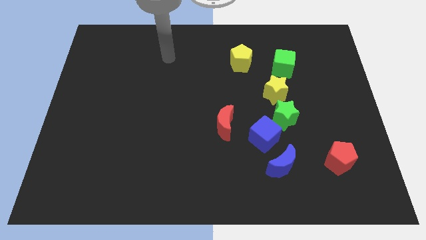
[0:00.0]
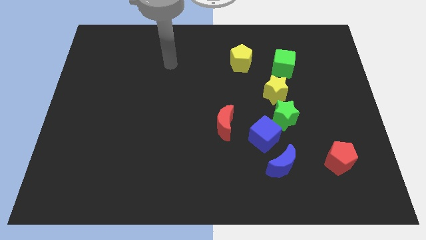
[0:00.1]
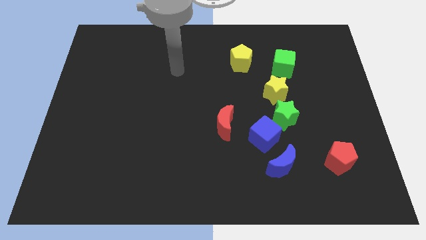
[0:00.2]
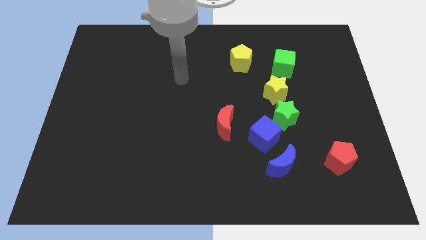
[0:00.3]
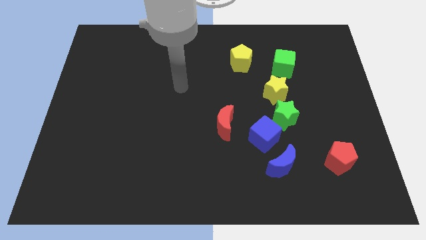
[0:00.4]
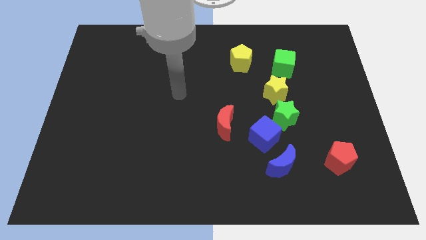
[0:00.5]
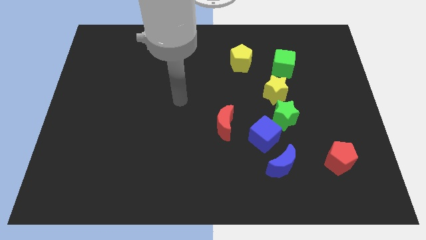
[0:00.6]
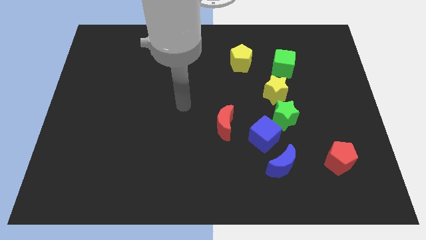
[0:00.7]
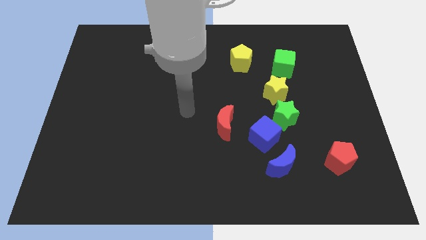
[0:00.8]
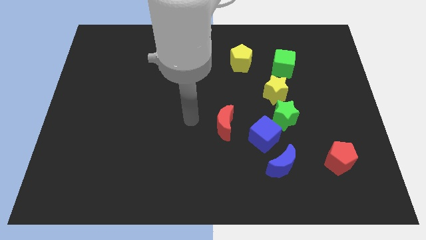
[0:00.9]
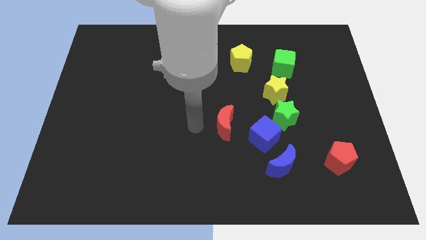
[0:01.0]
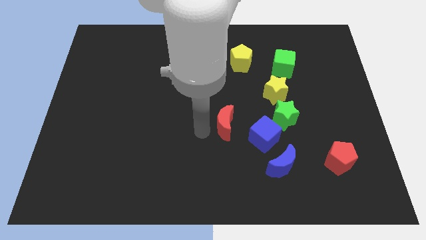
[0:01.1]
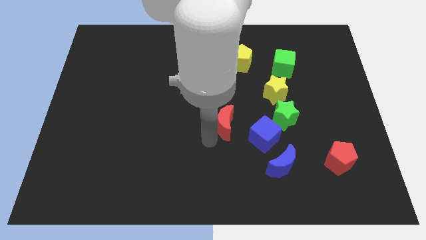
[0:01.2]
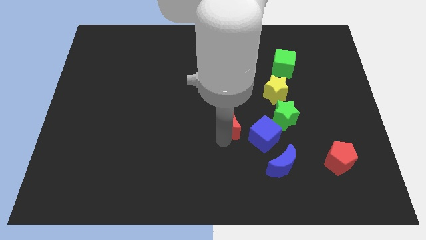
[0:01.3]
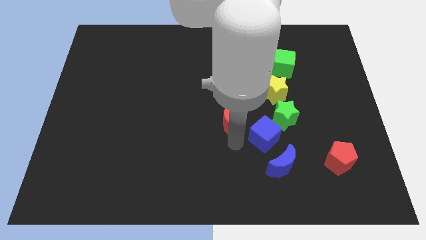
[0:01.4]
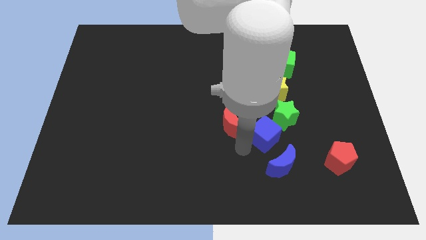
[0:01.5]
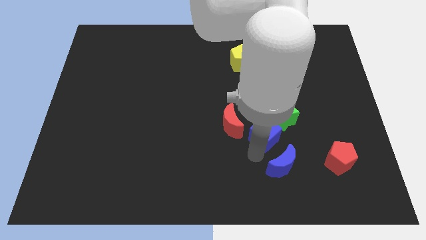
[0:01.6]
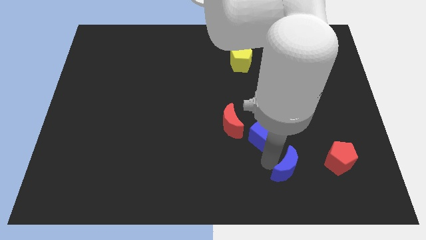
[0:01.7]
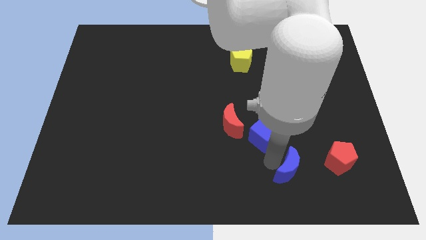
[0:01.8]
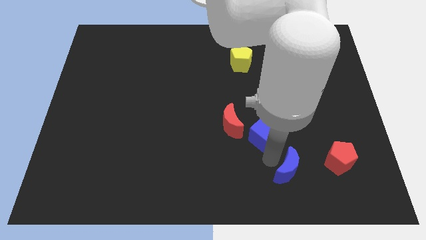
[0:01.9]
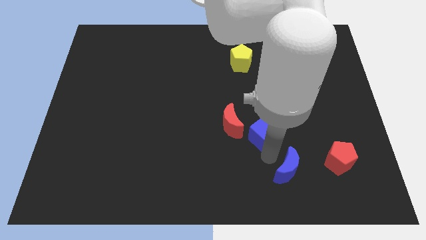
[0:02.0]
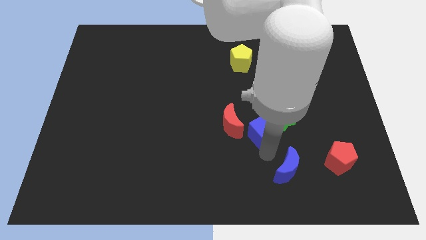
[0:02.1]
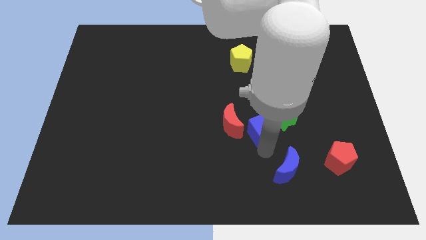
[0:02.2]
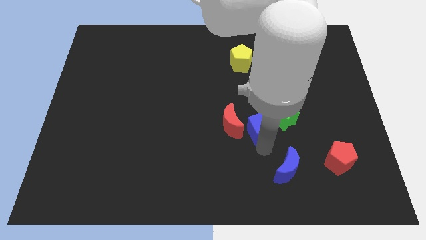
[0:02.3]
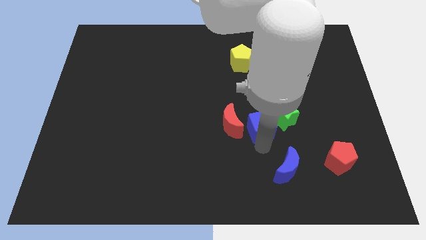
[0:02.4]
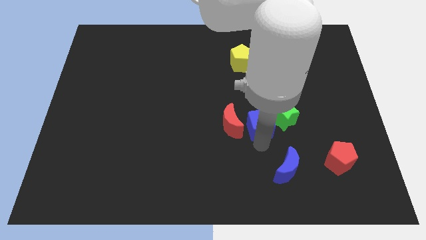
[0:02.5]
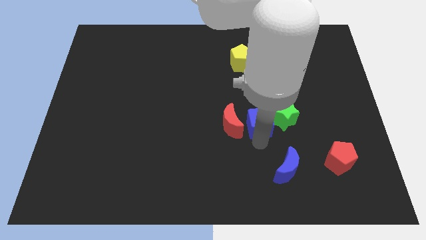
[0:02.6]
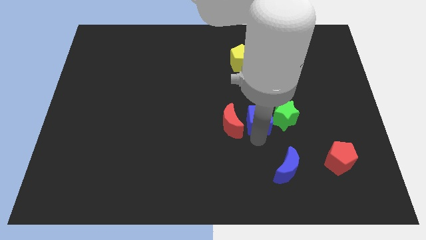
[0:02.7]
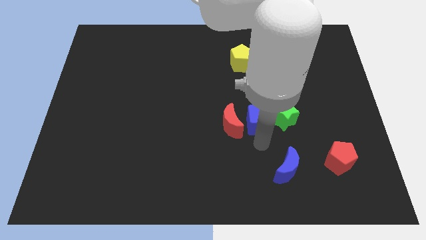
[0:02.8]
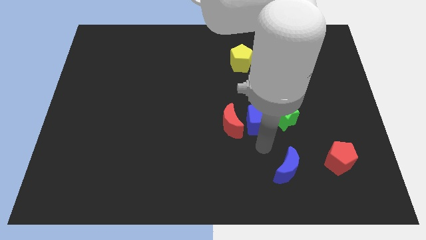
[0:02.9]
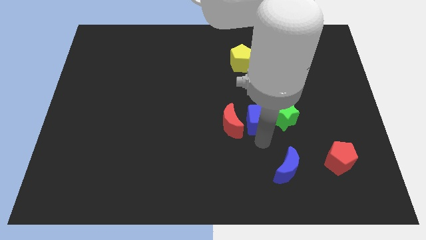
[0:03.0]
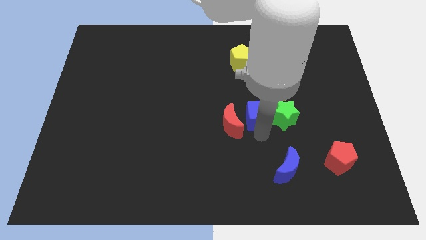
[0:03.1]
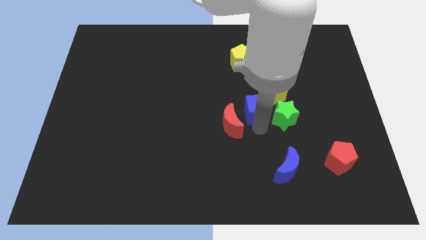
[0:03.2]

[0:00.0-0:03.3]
push the blue cube up somewhat

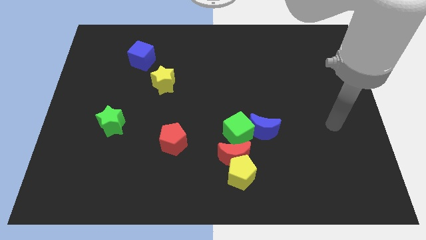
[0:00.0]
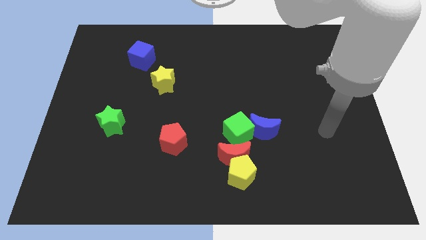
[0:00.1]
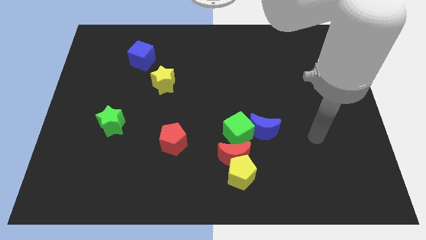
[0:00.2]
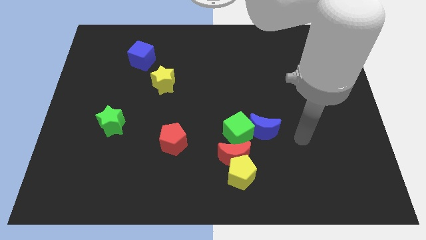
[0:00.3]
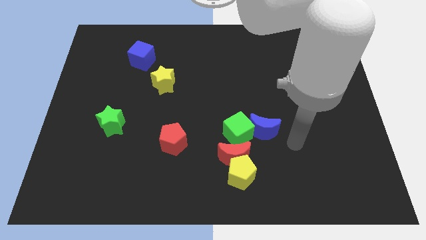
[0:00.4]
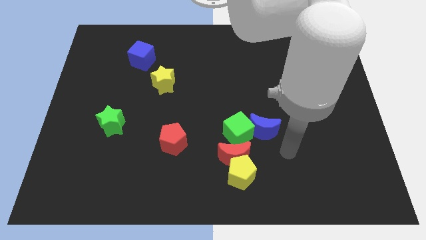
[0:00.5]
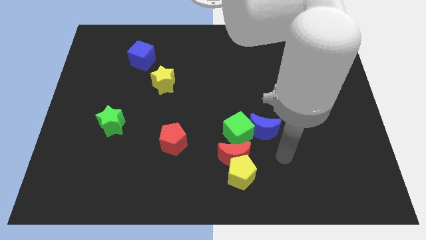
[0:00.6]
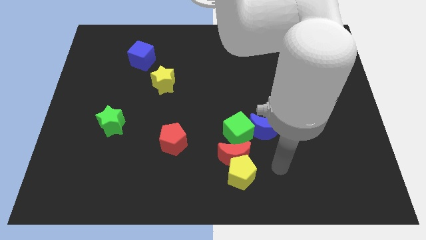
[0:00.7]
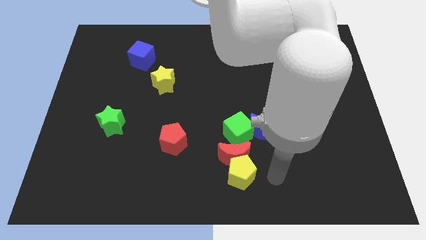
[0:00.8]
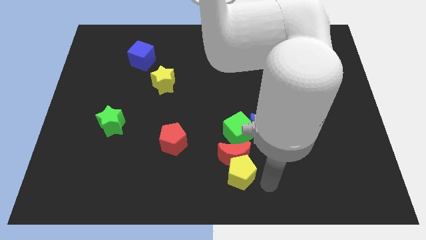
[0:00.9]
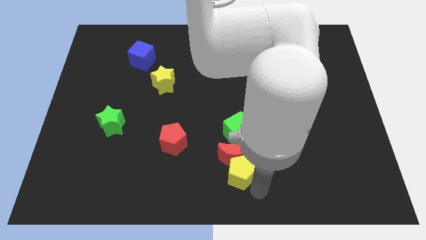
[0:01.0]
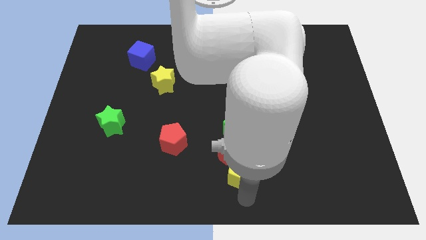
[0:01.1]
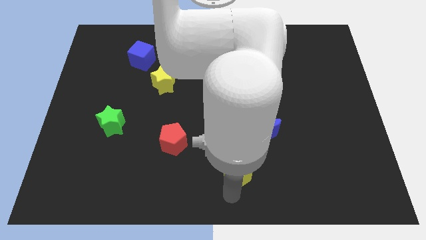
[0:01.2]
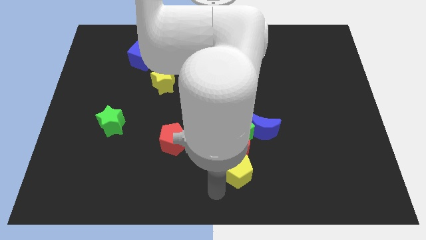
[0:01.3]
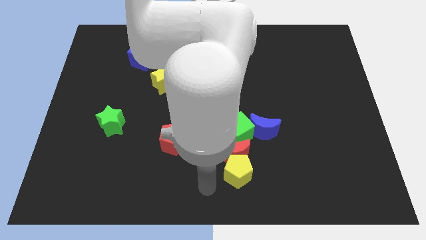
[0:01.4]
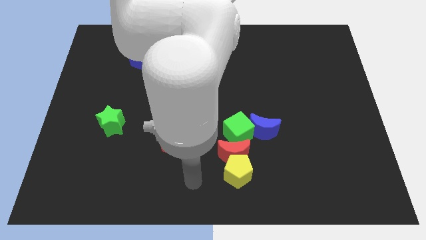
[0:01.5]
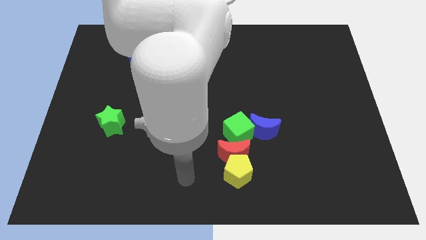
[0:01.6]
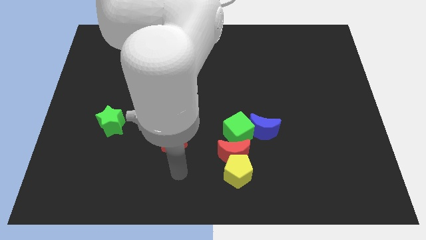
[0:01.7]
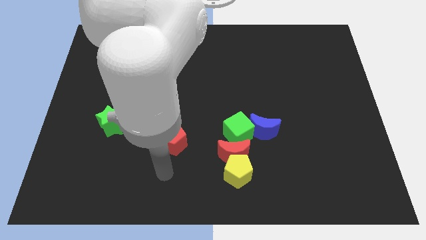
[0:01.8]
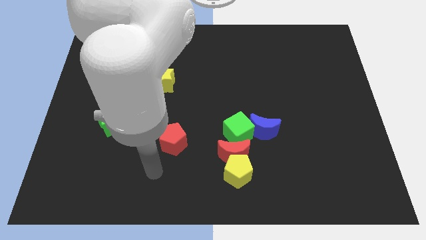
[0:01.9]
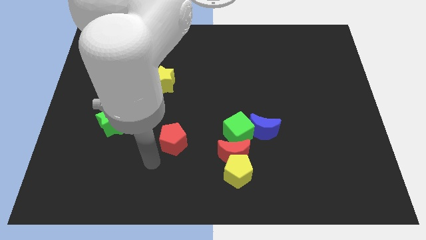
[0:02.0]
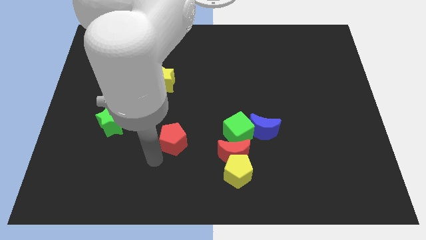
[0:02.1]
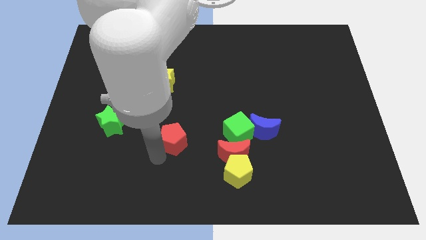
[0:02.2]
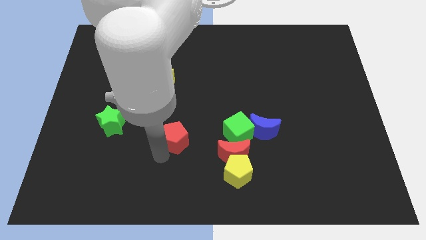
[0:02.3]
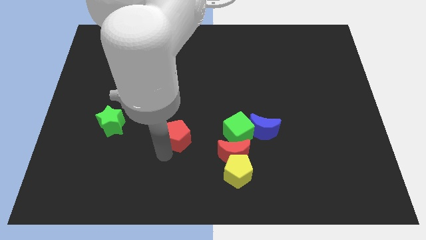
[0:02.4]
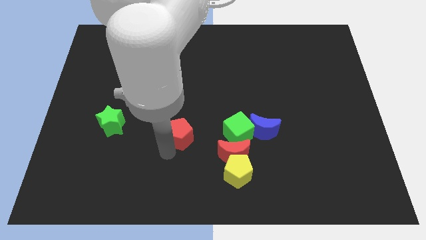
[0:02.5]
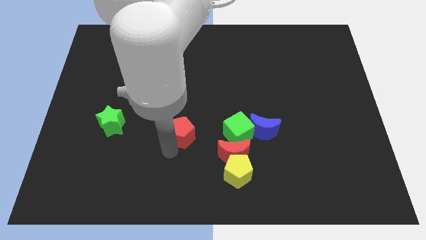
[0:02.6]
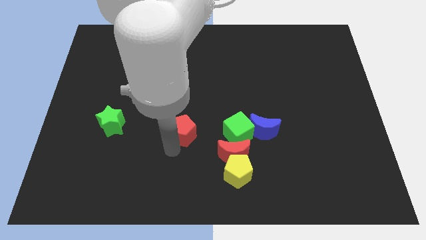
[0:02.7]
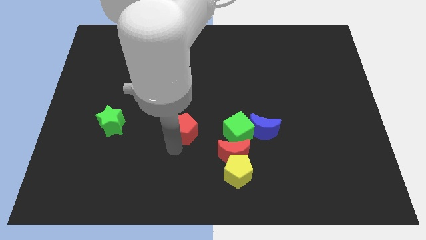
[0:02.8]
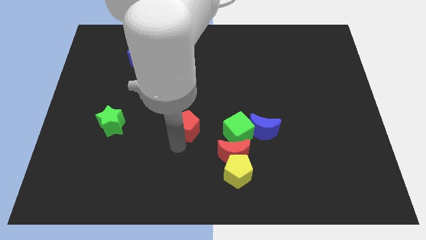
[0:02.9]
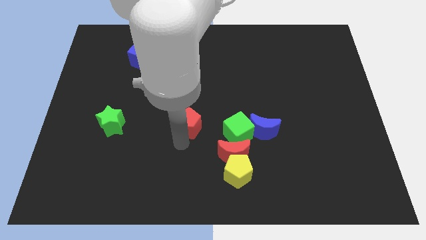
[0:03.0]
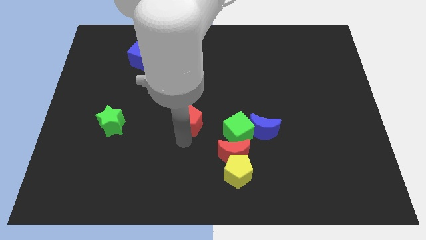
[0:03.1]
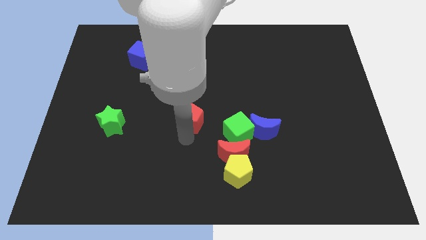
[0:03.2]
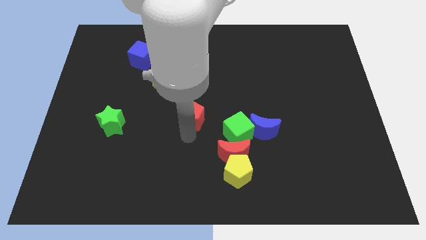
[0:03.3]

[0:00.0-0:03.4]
slightly push the red pentagon upwards and right

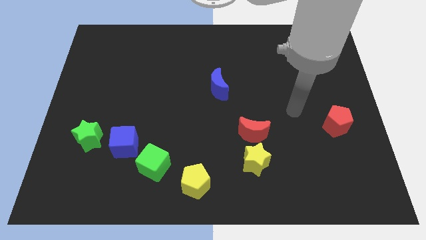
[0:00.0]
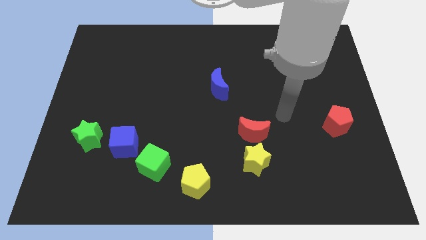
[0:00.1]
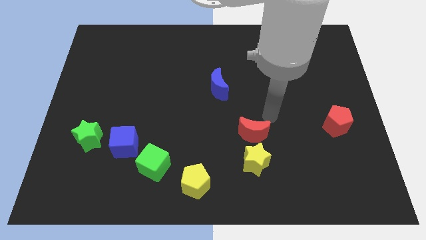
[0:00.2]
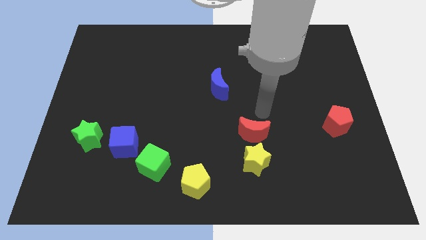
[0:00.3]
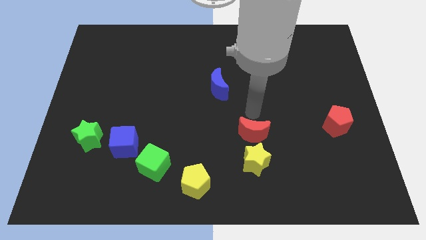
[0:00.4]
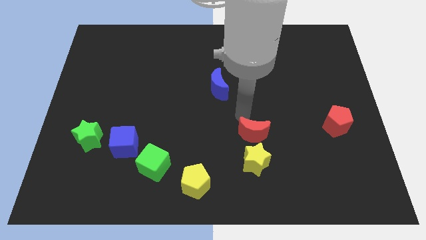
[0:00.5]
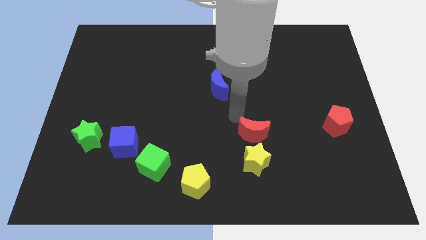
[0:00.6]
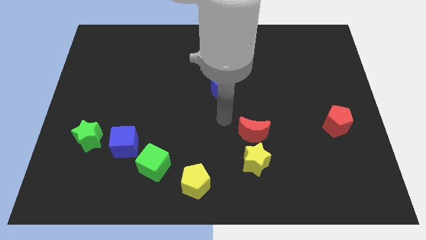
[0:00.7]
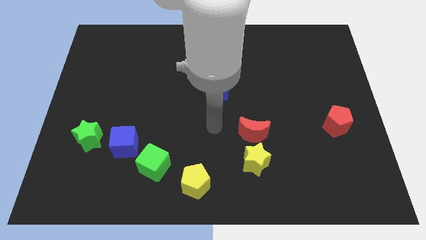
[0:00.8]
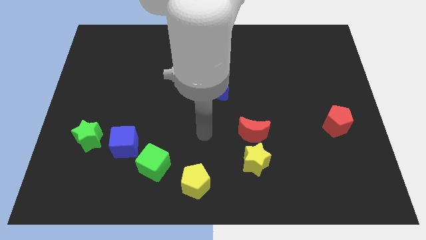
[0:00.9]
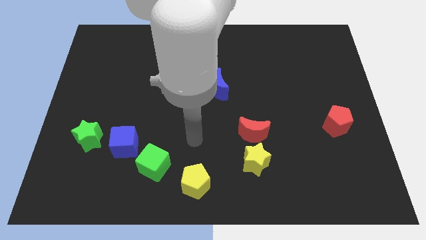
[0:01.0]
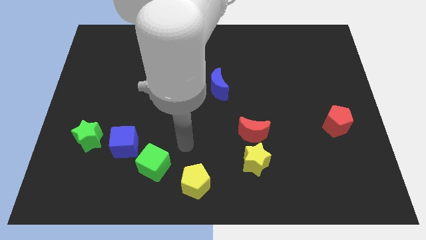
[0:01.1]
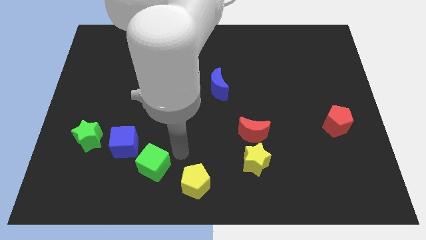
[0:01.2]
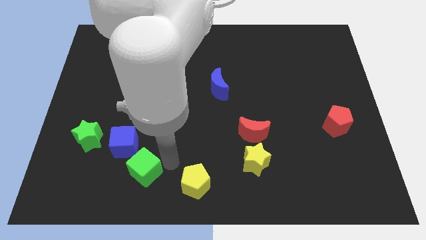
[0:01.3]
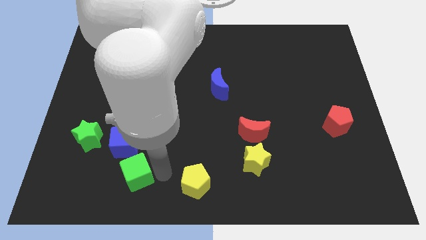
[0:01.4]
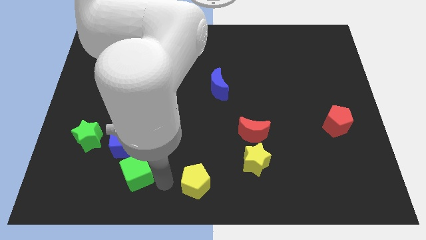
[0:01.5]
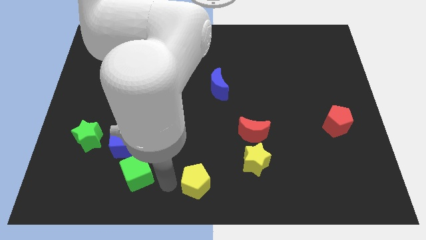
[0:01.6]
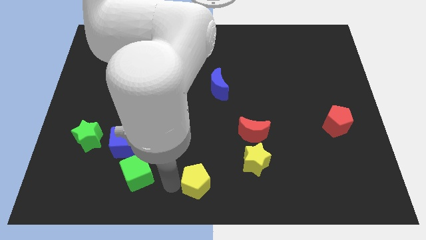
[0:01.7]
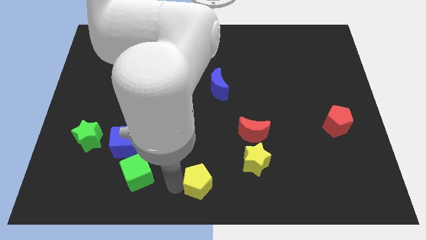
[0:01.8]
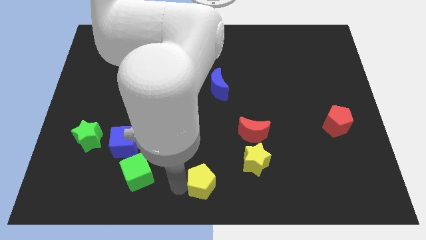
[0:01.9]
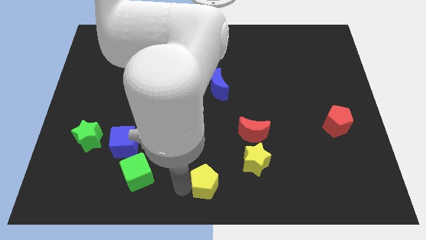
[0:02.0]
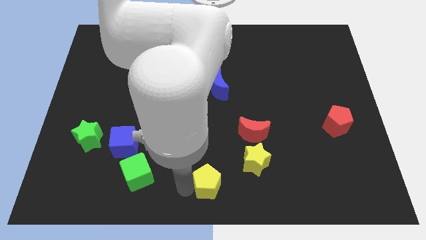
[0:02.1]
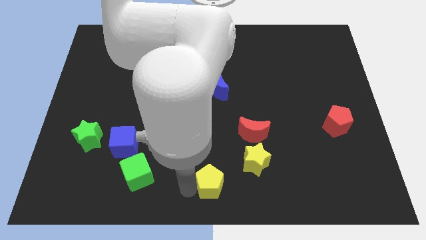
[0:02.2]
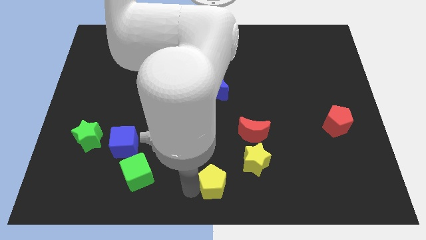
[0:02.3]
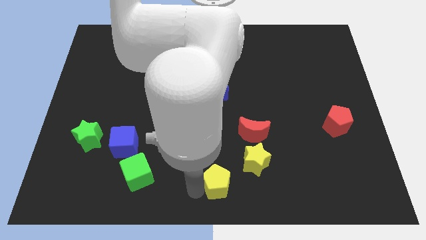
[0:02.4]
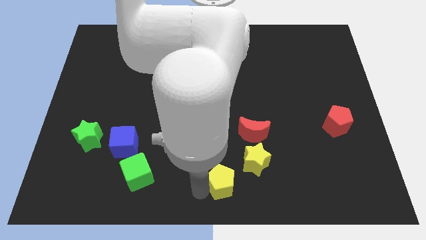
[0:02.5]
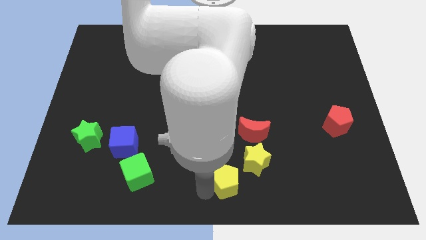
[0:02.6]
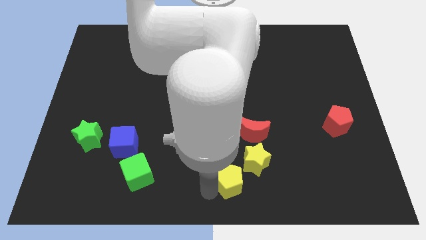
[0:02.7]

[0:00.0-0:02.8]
slide the yellow pentagon to the right slightly
